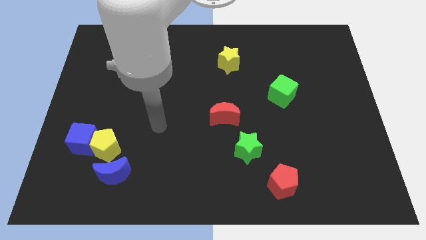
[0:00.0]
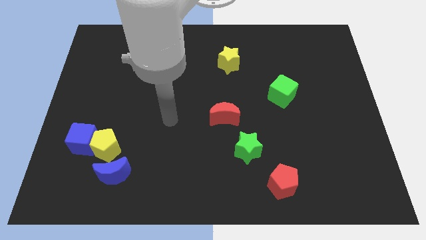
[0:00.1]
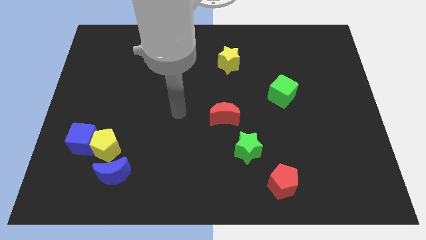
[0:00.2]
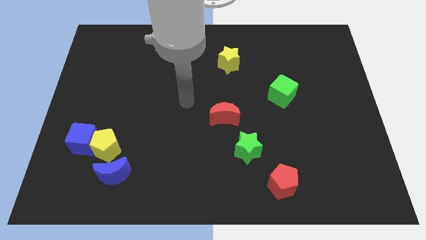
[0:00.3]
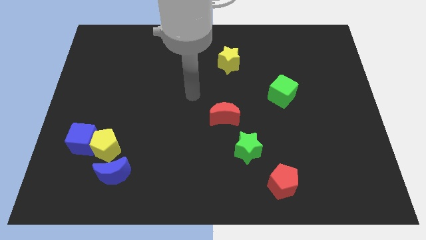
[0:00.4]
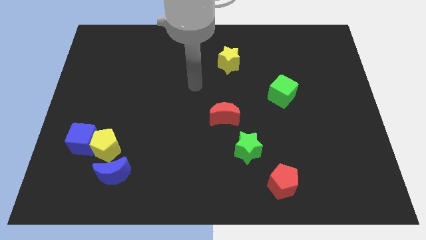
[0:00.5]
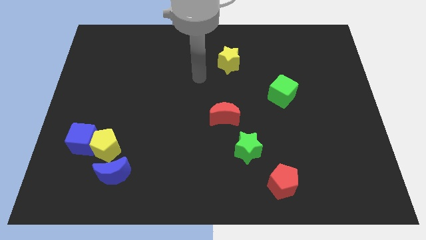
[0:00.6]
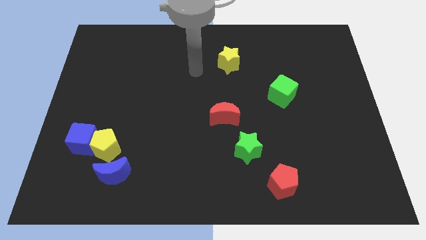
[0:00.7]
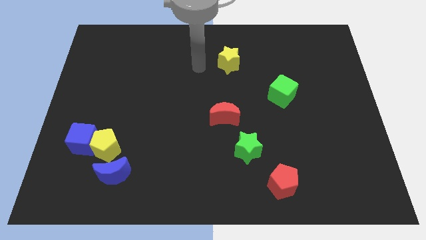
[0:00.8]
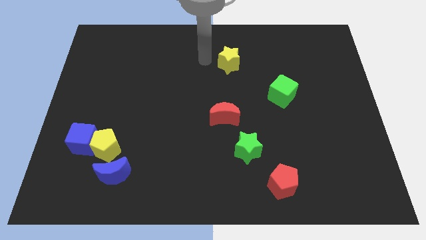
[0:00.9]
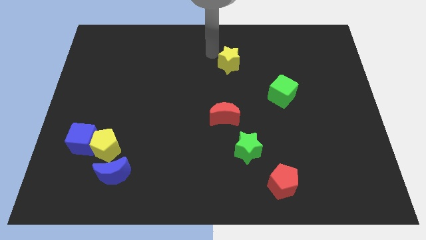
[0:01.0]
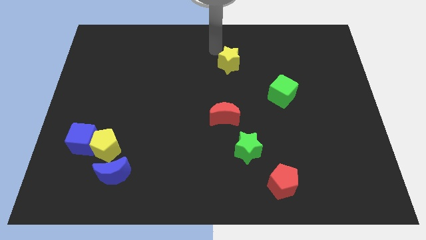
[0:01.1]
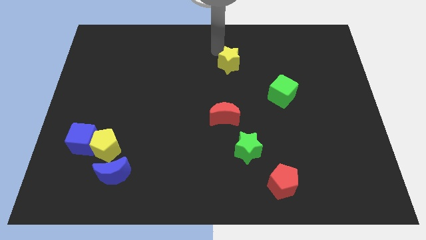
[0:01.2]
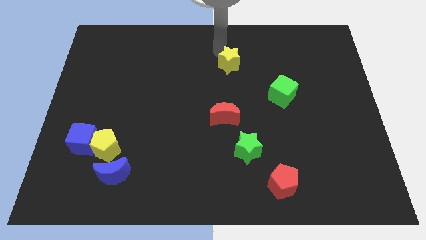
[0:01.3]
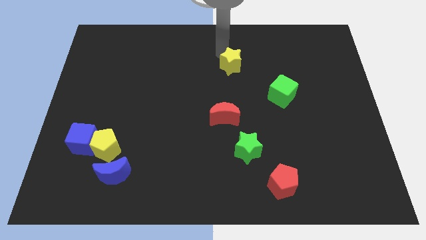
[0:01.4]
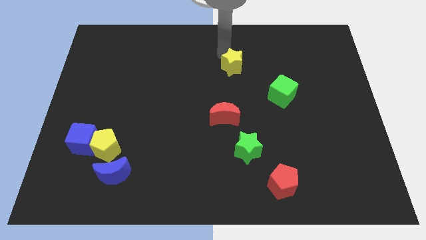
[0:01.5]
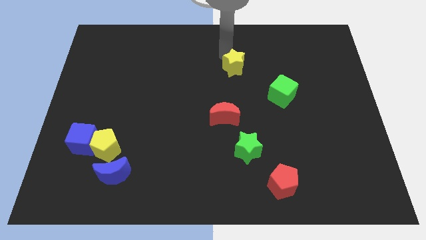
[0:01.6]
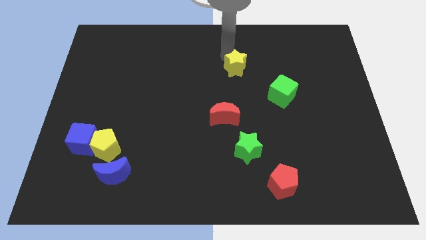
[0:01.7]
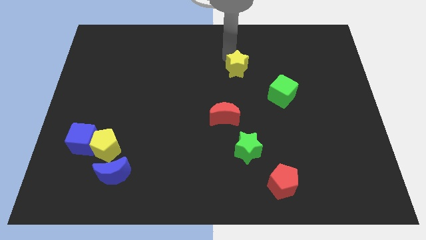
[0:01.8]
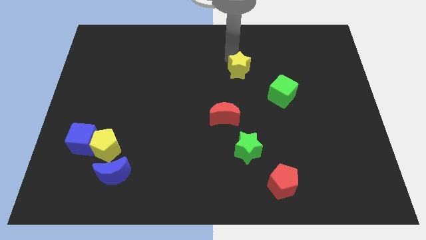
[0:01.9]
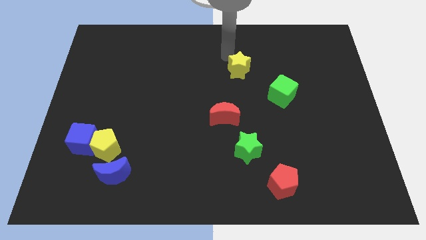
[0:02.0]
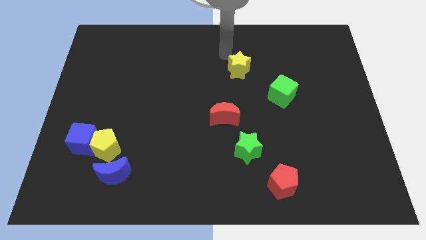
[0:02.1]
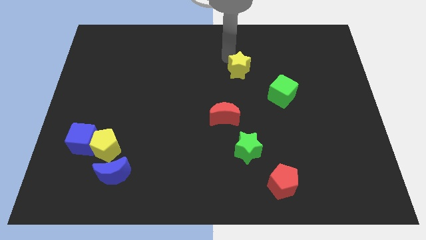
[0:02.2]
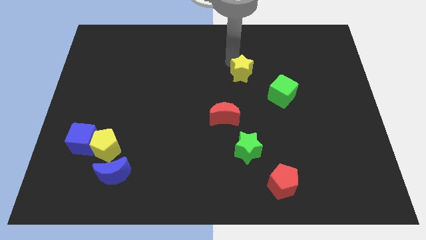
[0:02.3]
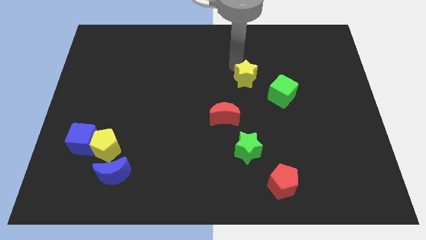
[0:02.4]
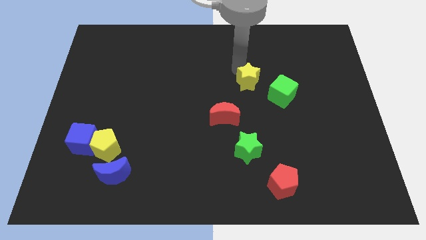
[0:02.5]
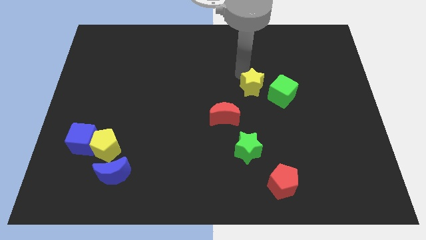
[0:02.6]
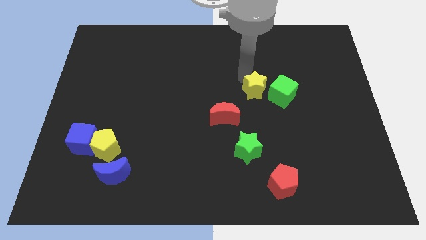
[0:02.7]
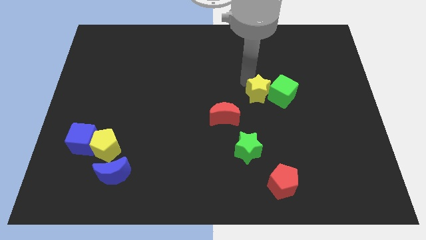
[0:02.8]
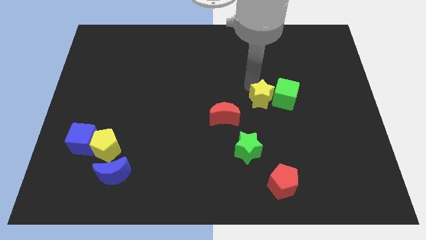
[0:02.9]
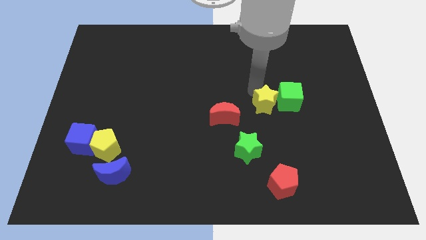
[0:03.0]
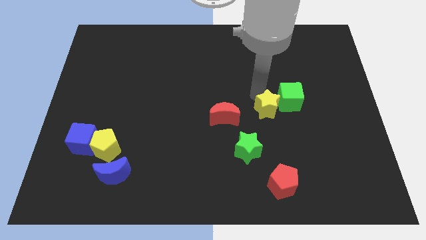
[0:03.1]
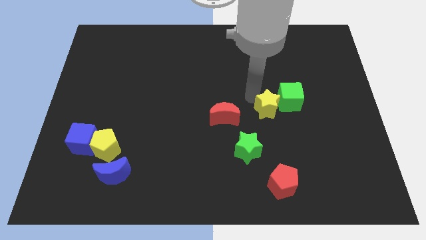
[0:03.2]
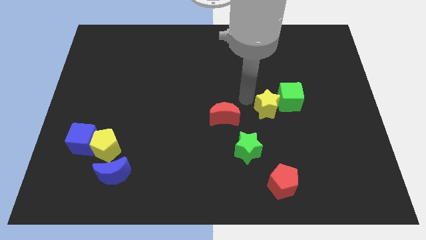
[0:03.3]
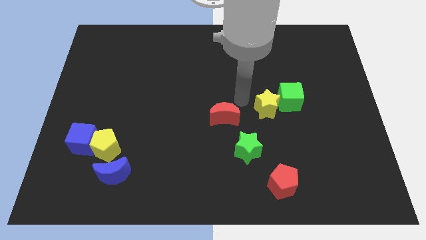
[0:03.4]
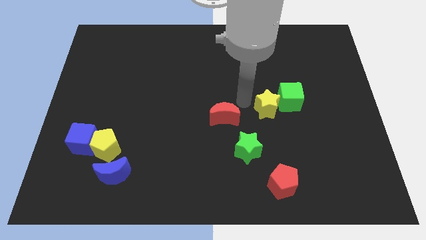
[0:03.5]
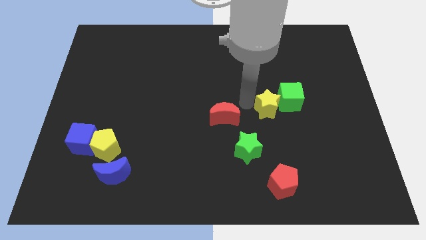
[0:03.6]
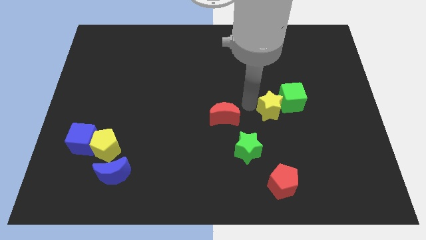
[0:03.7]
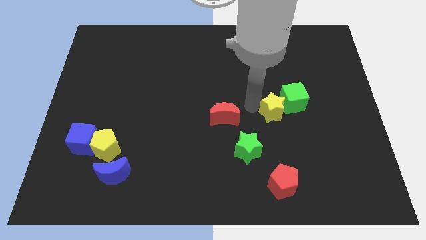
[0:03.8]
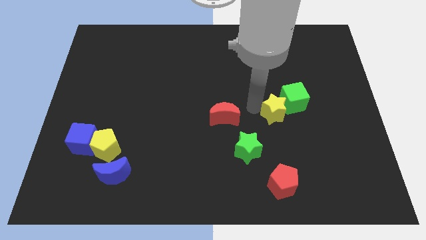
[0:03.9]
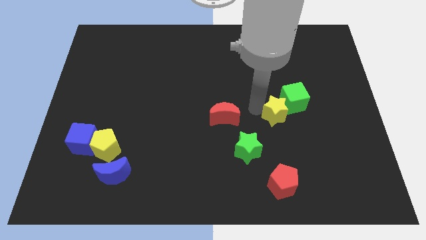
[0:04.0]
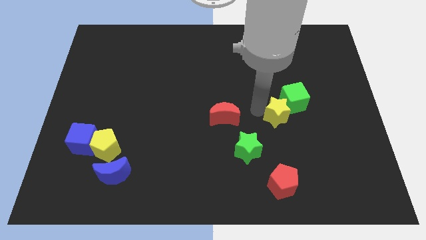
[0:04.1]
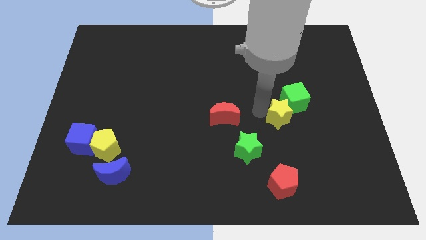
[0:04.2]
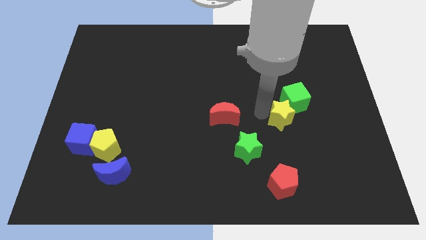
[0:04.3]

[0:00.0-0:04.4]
move the yellow star downwards and right

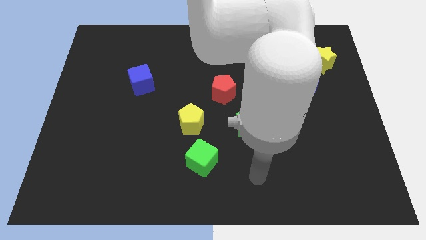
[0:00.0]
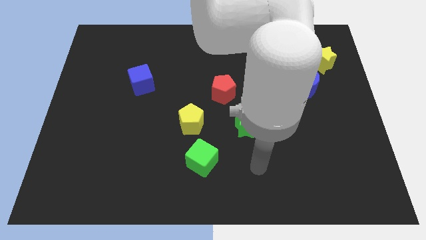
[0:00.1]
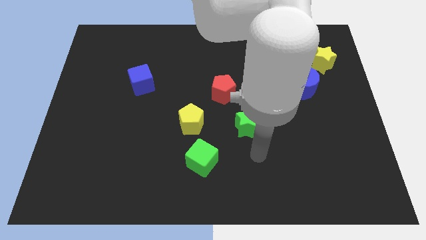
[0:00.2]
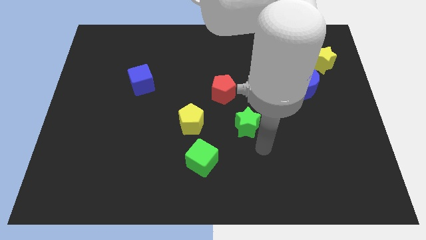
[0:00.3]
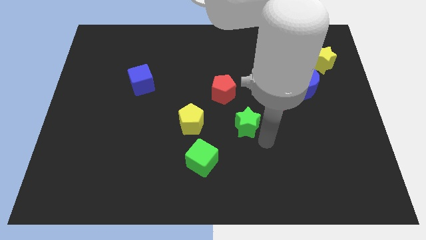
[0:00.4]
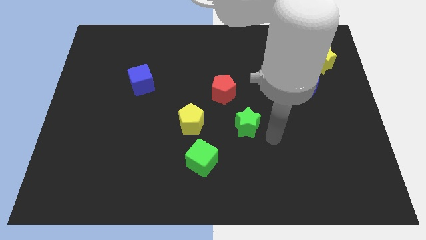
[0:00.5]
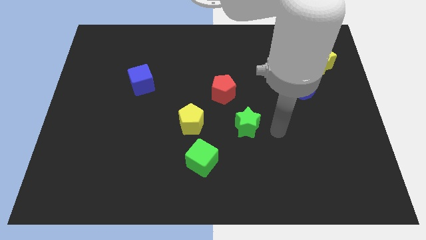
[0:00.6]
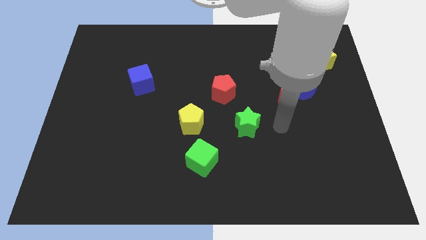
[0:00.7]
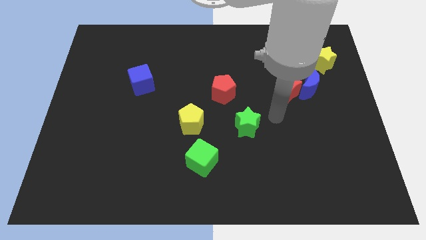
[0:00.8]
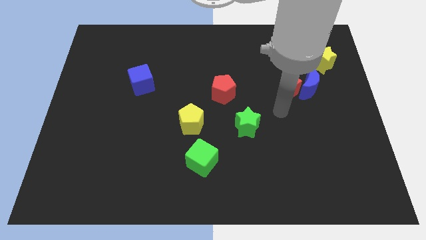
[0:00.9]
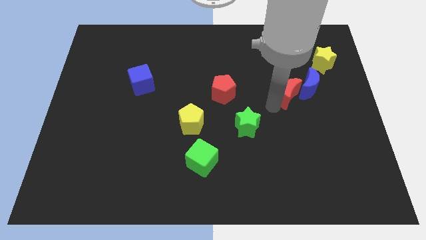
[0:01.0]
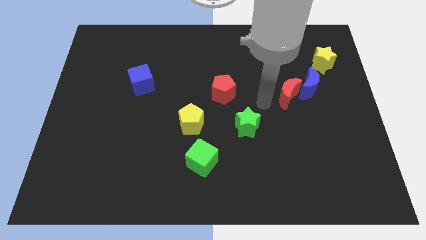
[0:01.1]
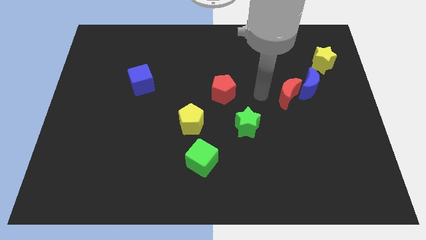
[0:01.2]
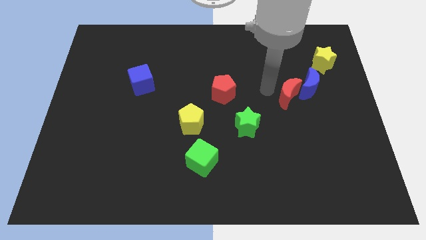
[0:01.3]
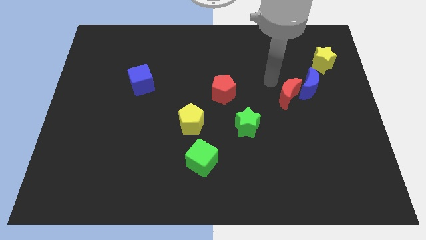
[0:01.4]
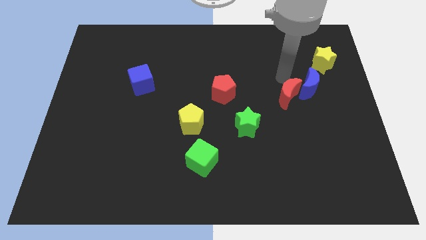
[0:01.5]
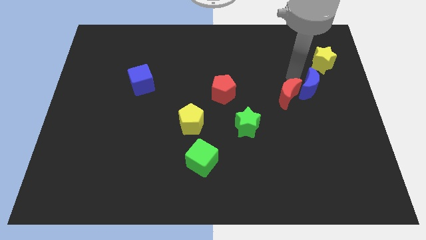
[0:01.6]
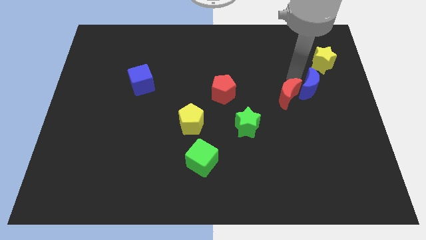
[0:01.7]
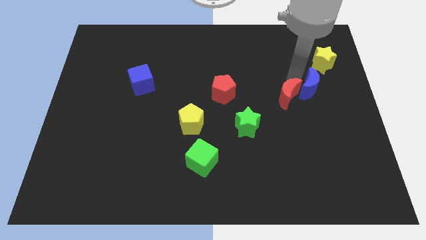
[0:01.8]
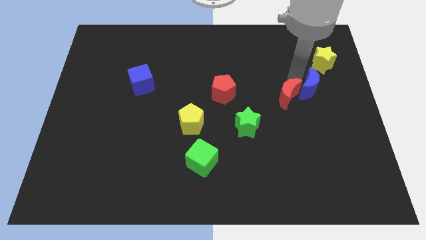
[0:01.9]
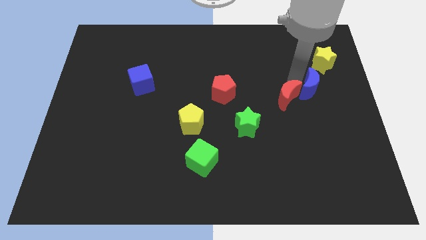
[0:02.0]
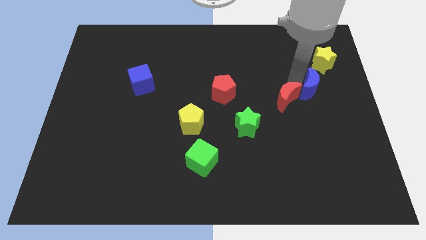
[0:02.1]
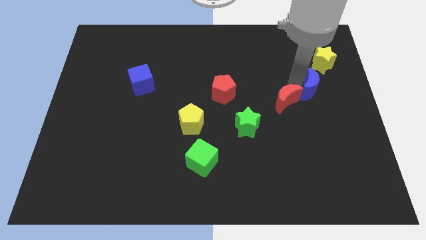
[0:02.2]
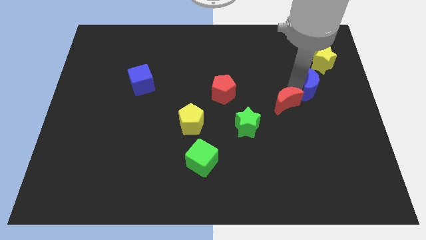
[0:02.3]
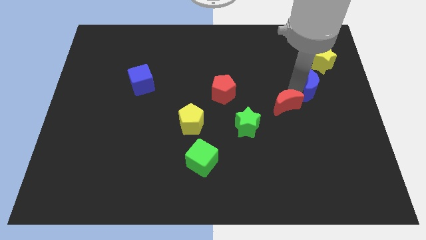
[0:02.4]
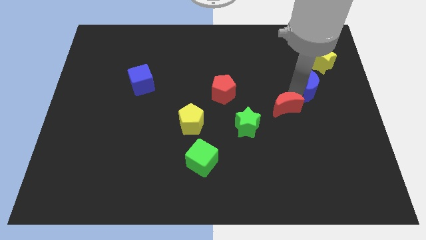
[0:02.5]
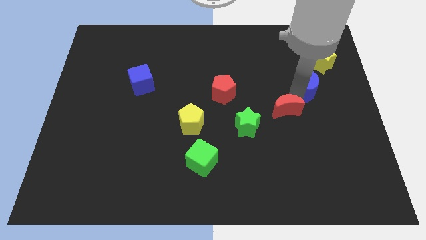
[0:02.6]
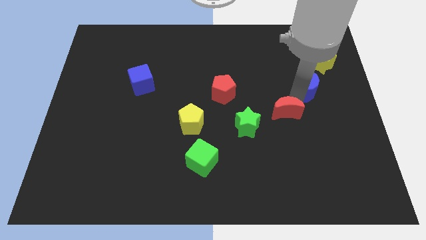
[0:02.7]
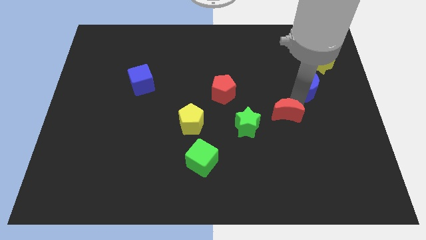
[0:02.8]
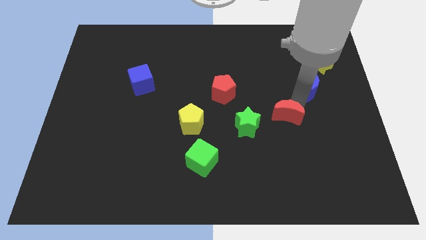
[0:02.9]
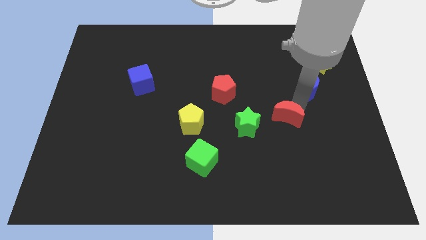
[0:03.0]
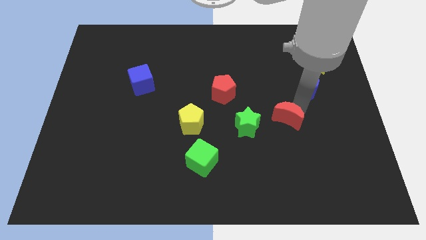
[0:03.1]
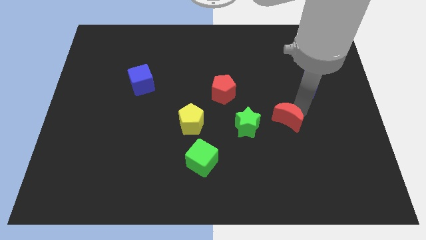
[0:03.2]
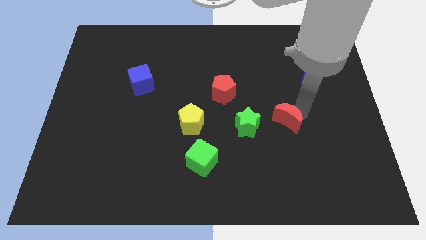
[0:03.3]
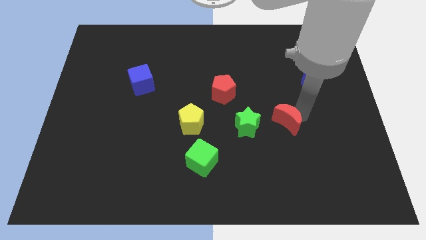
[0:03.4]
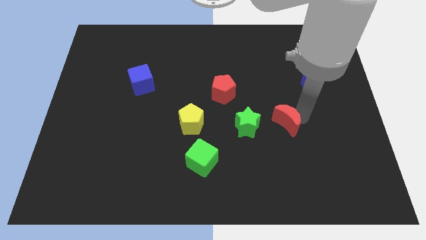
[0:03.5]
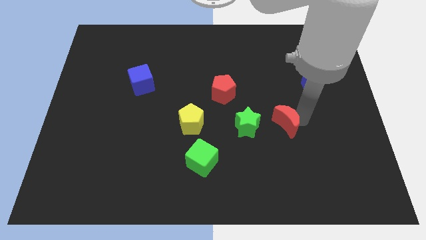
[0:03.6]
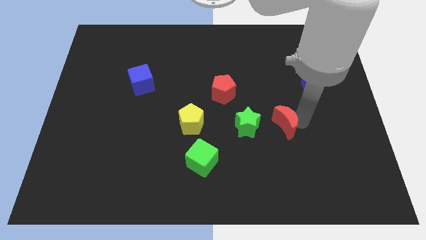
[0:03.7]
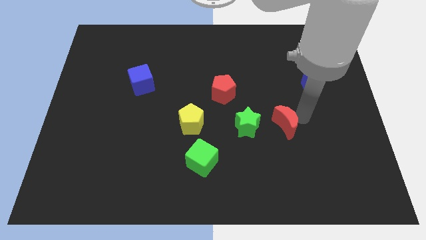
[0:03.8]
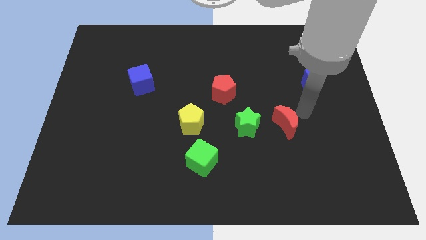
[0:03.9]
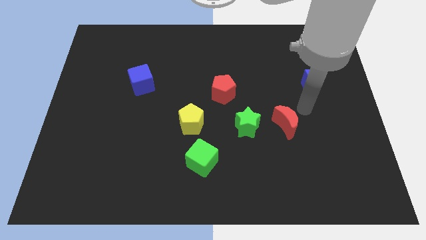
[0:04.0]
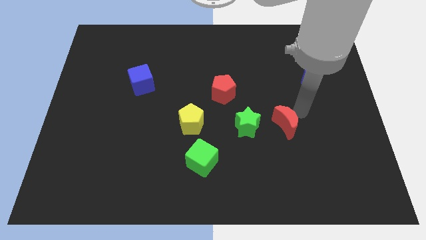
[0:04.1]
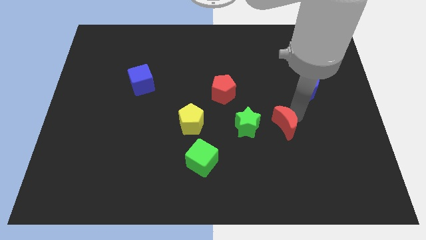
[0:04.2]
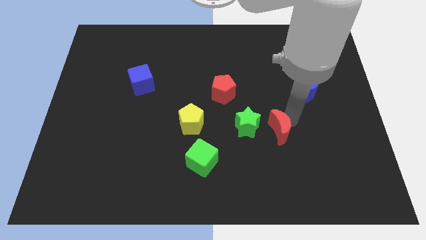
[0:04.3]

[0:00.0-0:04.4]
slightly push the red moon downwards and to the left diagonally
